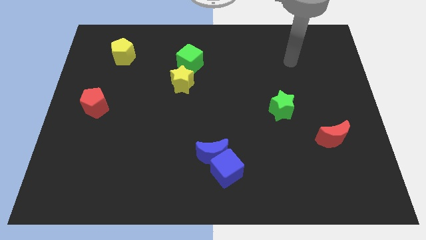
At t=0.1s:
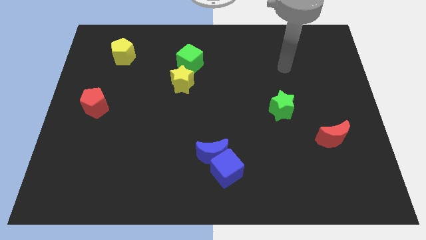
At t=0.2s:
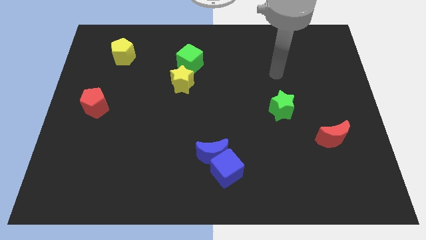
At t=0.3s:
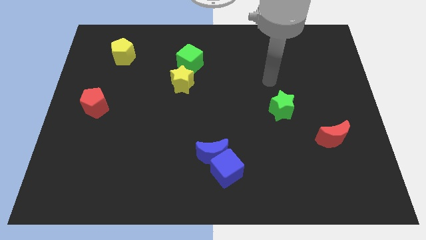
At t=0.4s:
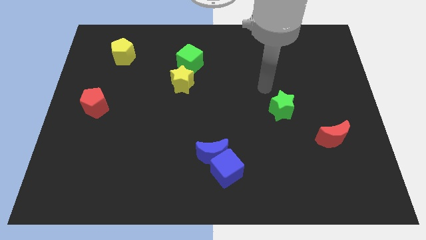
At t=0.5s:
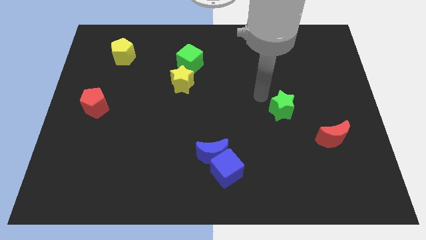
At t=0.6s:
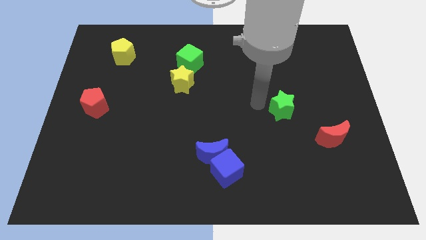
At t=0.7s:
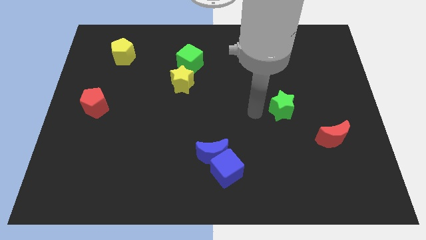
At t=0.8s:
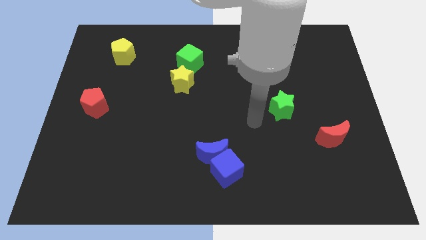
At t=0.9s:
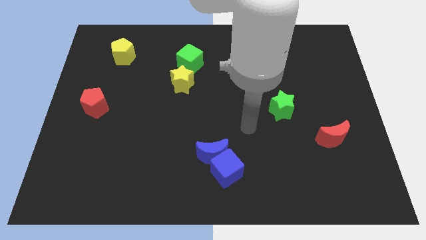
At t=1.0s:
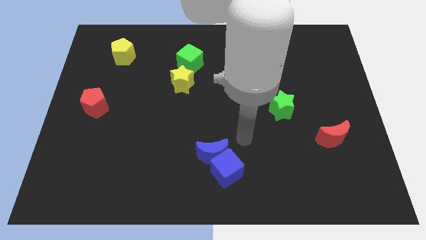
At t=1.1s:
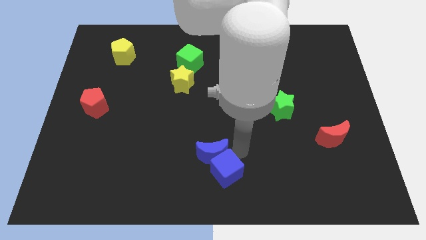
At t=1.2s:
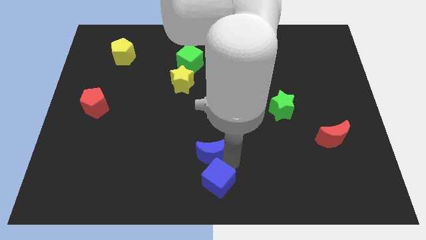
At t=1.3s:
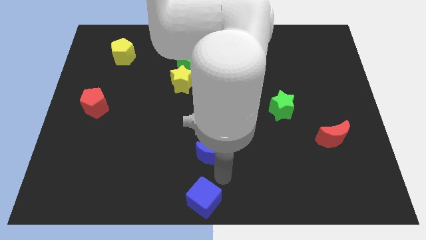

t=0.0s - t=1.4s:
move the blue moon away from the blue cube

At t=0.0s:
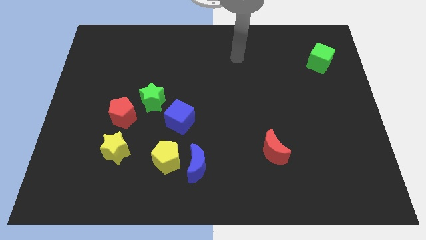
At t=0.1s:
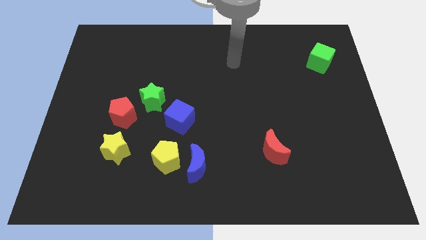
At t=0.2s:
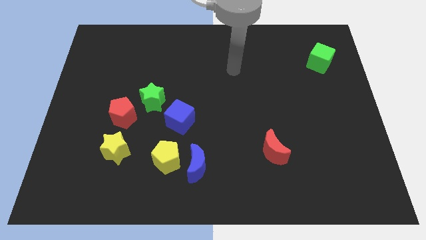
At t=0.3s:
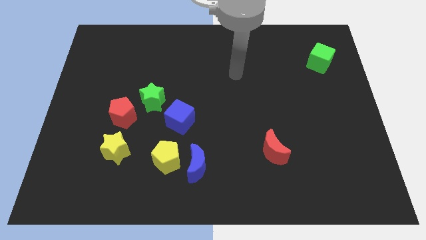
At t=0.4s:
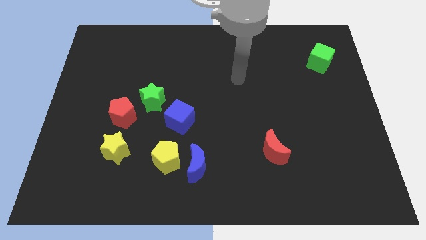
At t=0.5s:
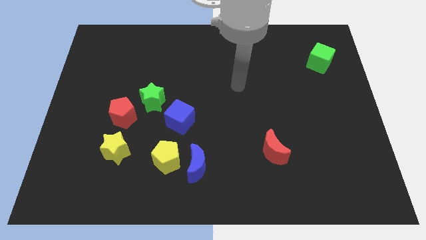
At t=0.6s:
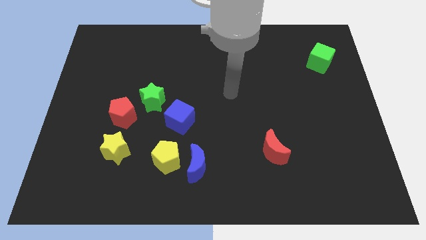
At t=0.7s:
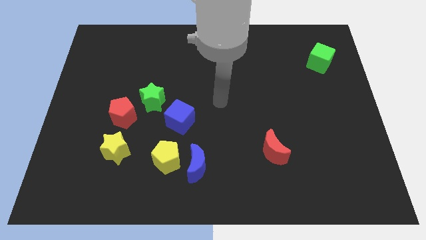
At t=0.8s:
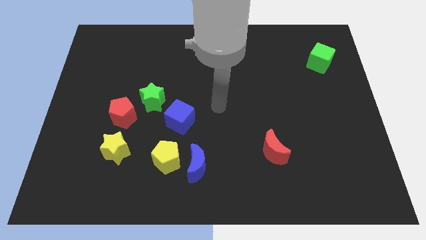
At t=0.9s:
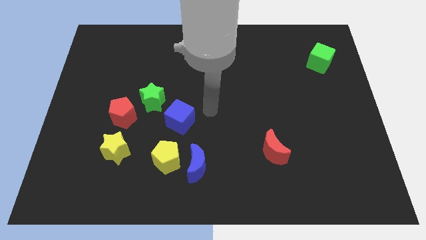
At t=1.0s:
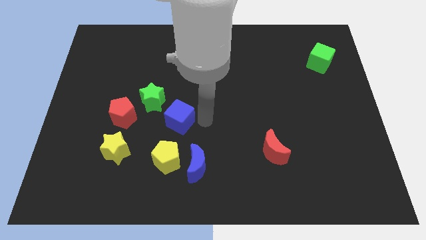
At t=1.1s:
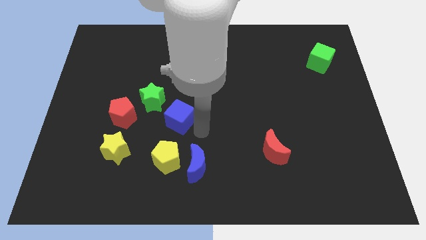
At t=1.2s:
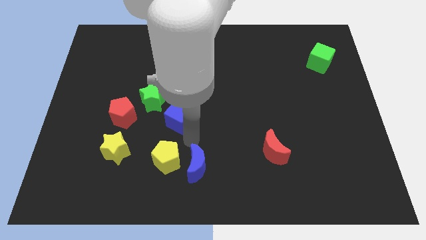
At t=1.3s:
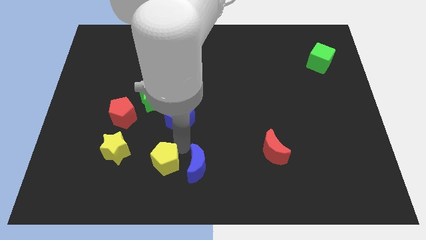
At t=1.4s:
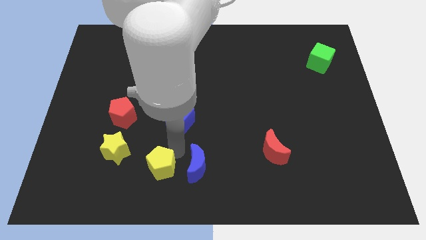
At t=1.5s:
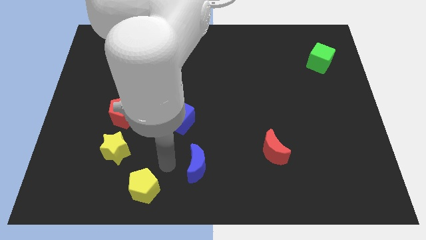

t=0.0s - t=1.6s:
separate the blue moon from the yellow pentagon

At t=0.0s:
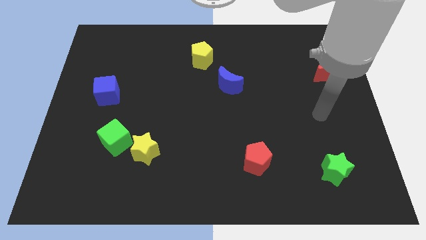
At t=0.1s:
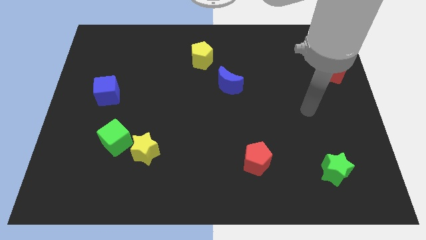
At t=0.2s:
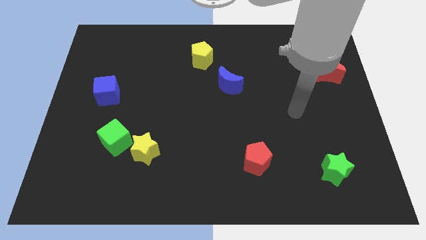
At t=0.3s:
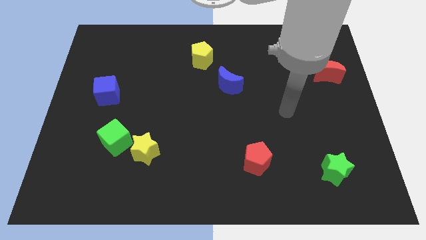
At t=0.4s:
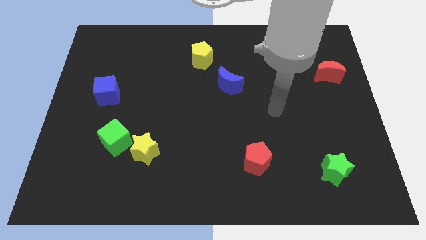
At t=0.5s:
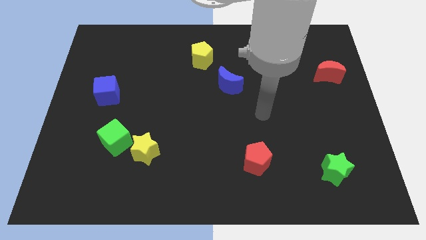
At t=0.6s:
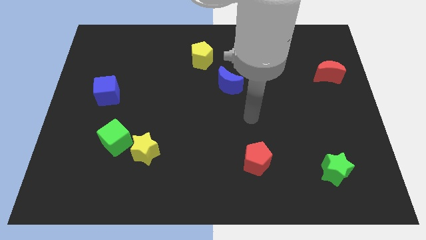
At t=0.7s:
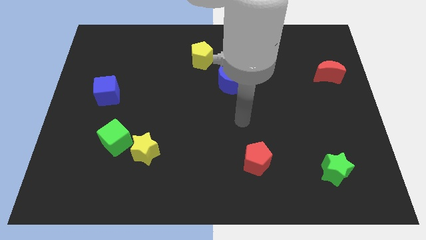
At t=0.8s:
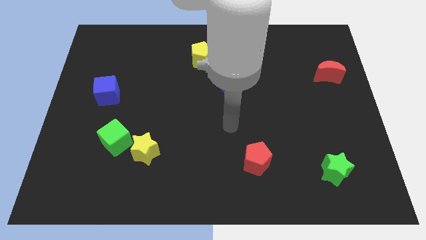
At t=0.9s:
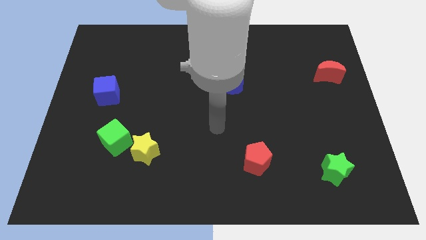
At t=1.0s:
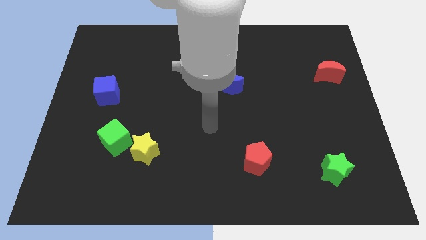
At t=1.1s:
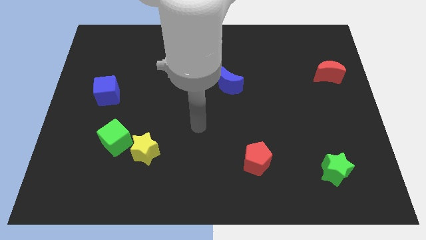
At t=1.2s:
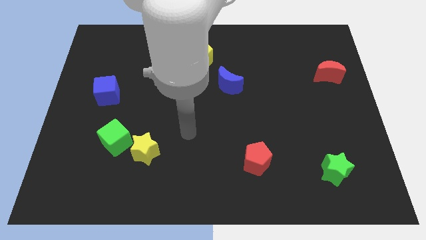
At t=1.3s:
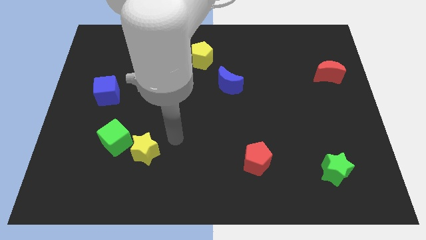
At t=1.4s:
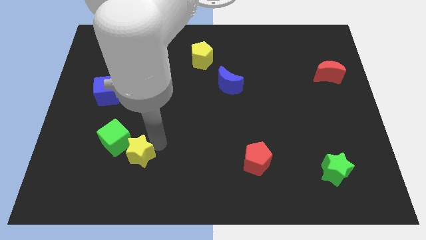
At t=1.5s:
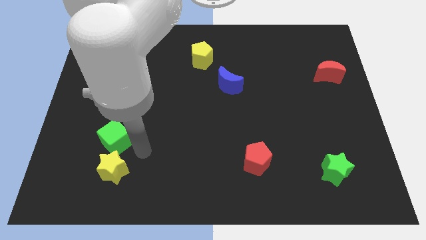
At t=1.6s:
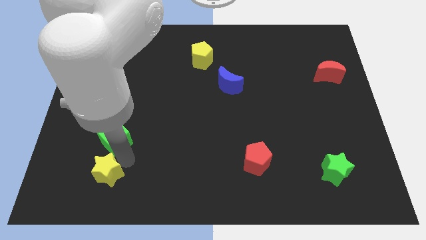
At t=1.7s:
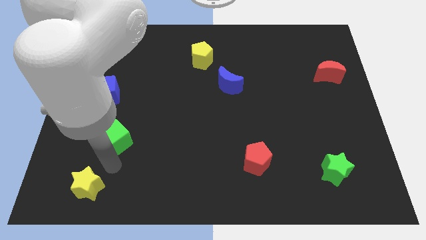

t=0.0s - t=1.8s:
pull the green cube apart from the yellow star

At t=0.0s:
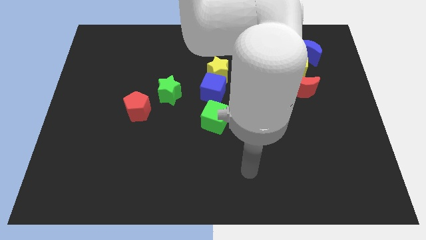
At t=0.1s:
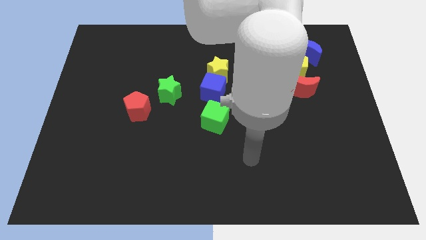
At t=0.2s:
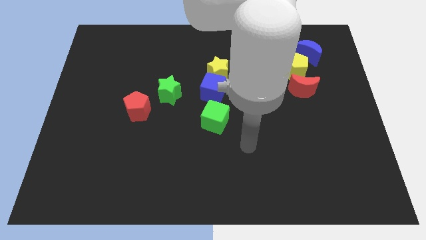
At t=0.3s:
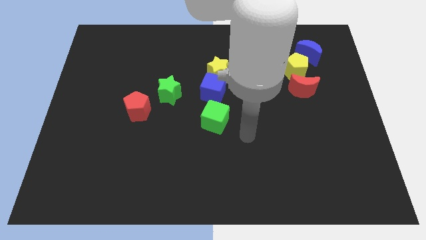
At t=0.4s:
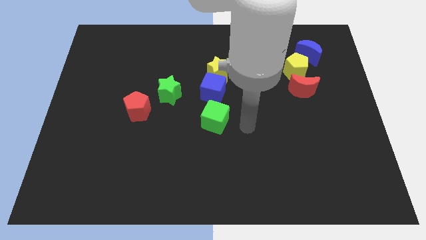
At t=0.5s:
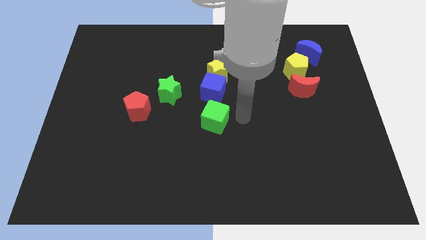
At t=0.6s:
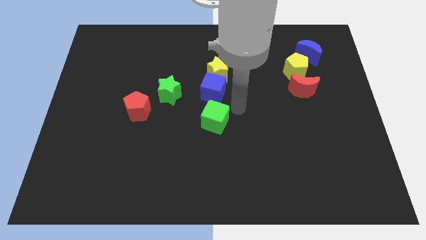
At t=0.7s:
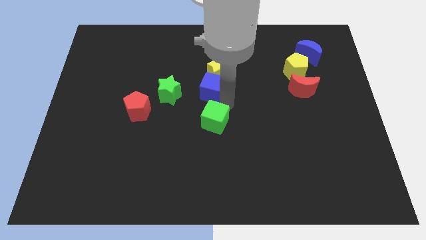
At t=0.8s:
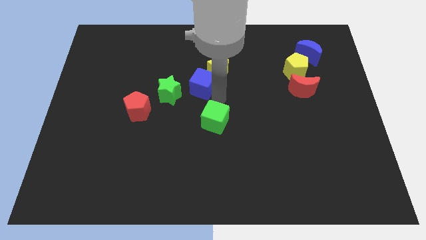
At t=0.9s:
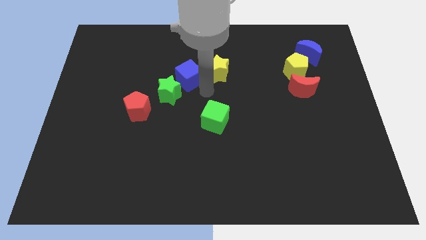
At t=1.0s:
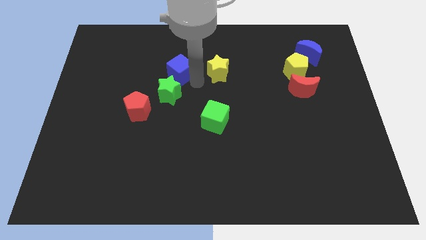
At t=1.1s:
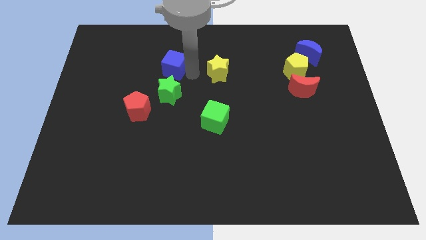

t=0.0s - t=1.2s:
separate the yellow star from the blue cube

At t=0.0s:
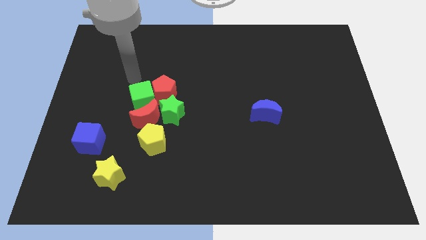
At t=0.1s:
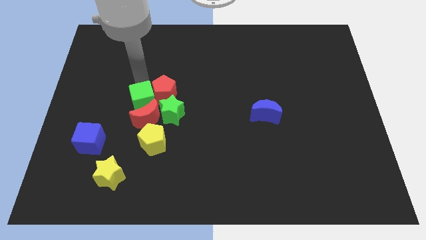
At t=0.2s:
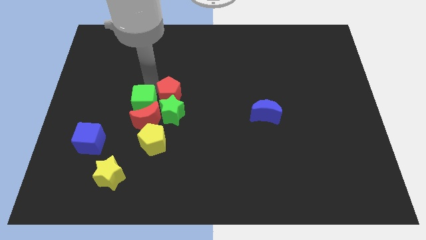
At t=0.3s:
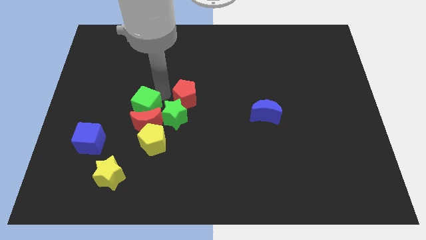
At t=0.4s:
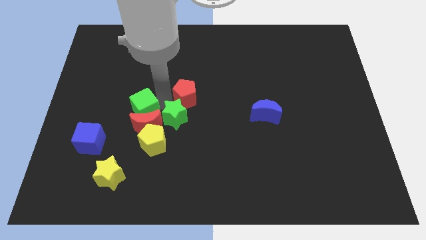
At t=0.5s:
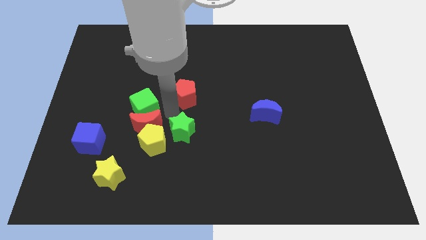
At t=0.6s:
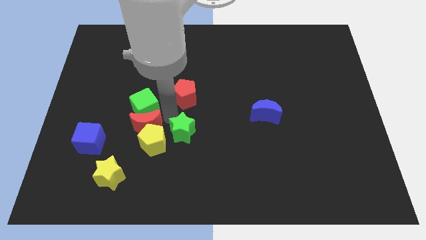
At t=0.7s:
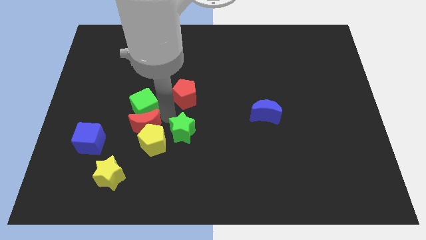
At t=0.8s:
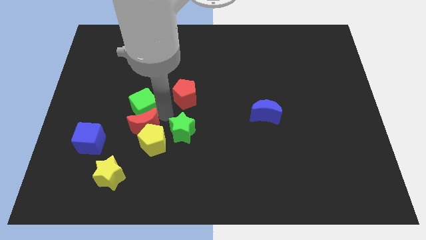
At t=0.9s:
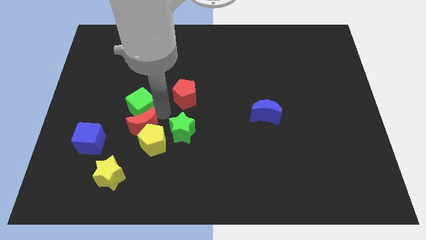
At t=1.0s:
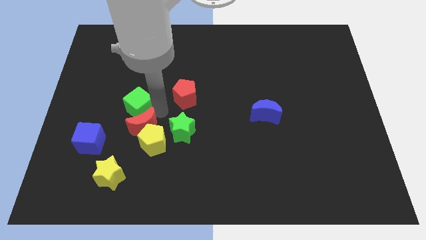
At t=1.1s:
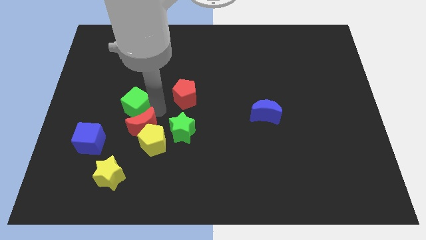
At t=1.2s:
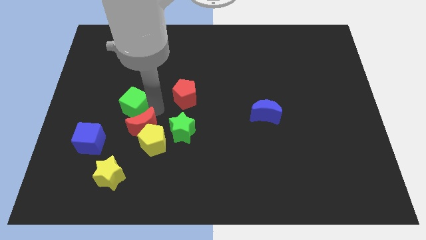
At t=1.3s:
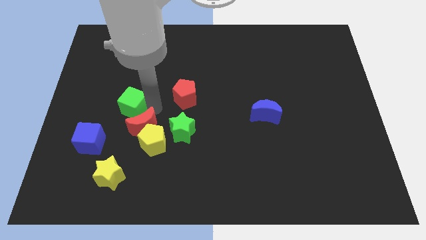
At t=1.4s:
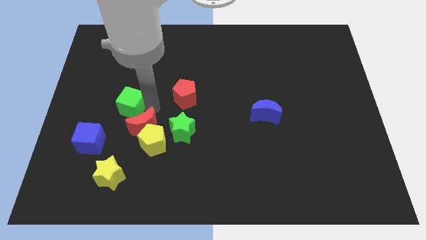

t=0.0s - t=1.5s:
separate the green cube from the clump

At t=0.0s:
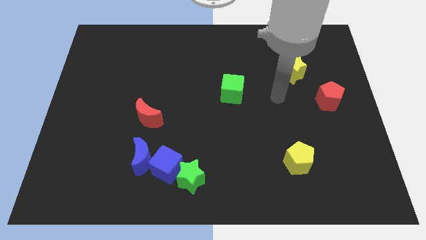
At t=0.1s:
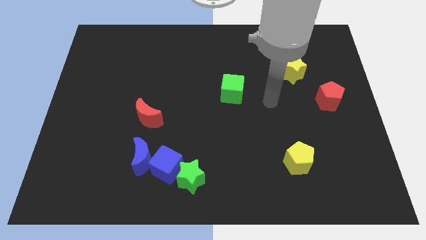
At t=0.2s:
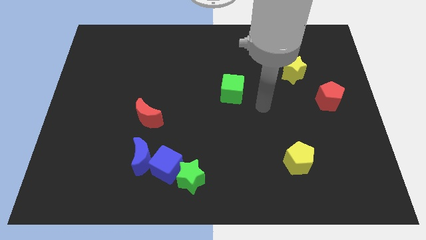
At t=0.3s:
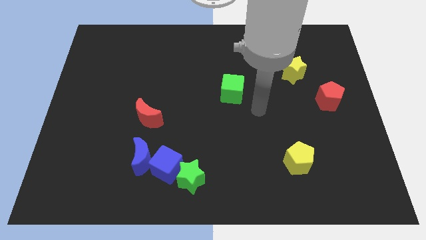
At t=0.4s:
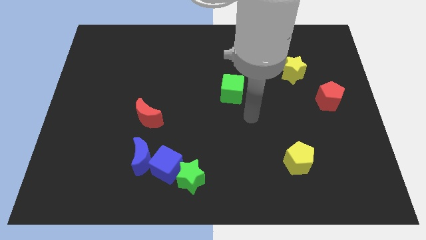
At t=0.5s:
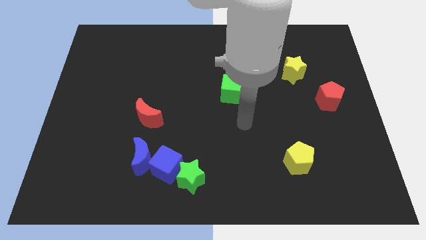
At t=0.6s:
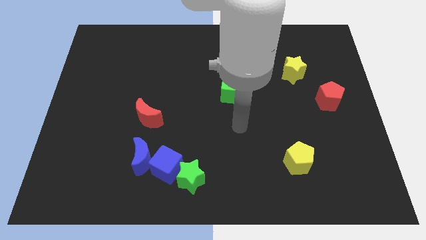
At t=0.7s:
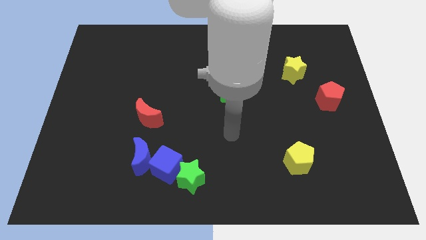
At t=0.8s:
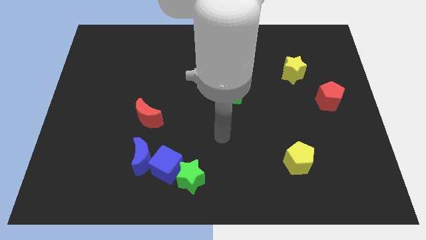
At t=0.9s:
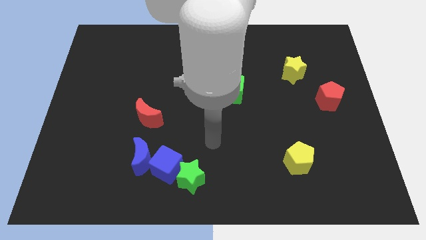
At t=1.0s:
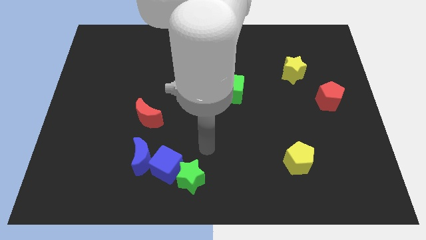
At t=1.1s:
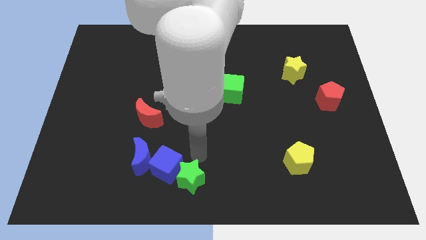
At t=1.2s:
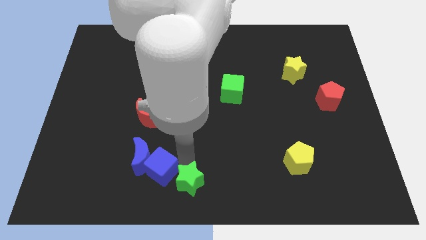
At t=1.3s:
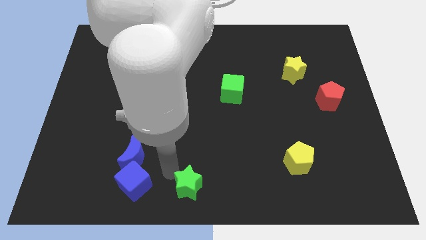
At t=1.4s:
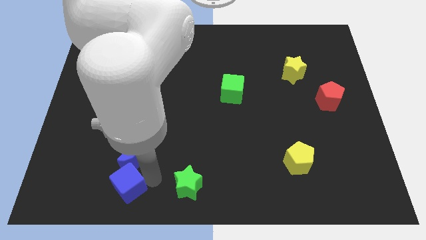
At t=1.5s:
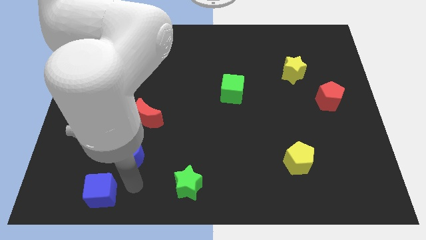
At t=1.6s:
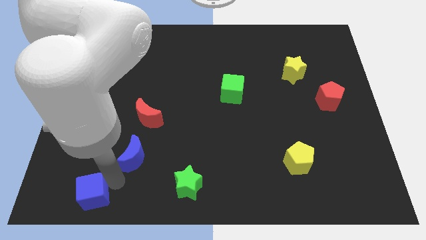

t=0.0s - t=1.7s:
pull the blue moon apart from the blue cube
